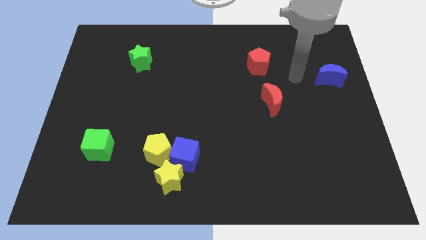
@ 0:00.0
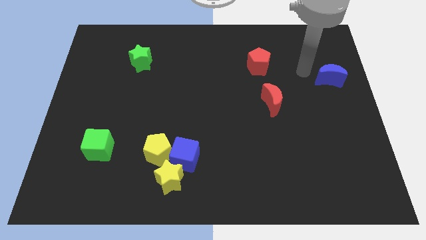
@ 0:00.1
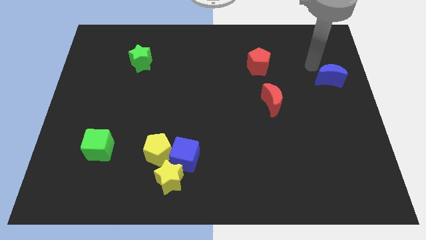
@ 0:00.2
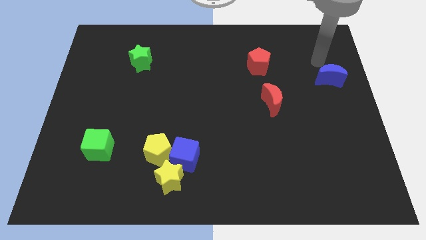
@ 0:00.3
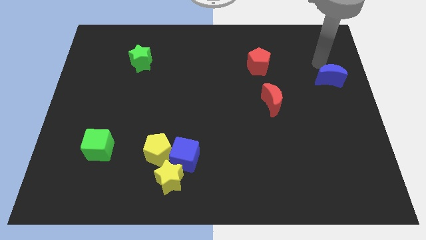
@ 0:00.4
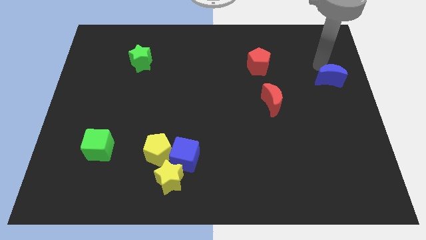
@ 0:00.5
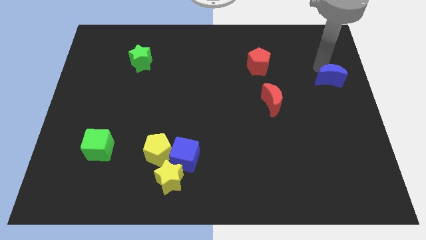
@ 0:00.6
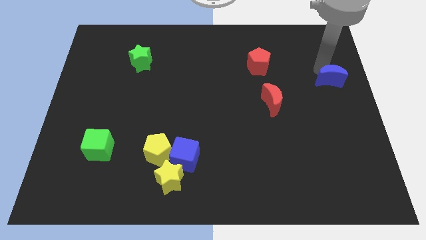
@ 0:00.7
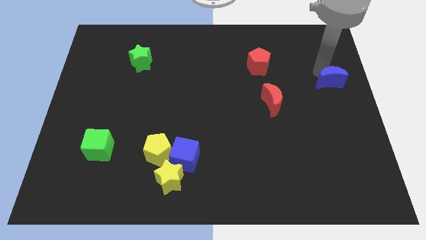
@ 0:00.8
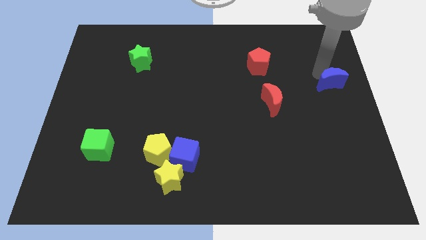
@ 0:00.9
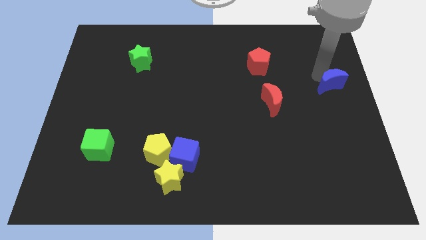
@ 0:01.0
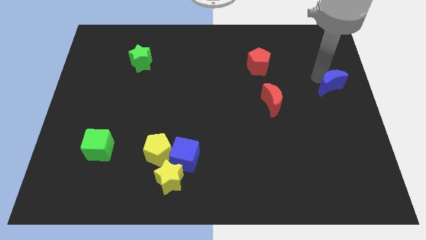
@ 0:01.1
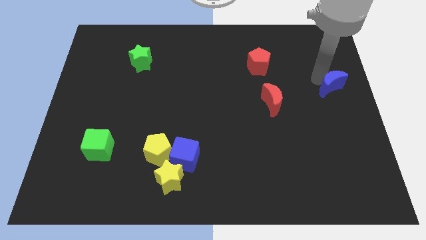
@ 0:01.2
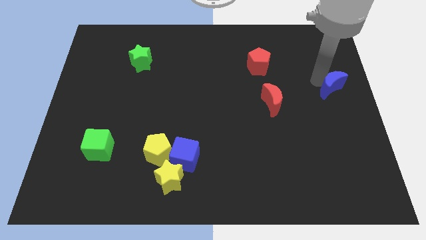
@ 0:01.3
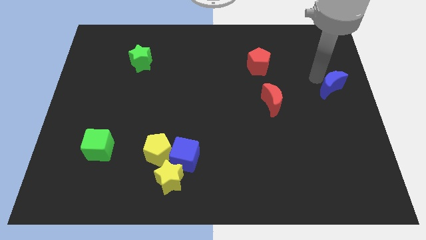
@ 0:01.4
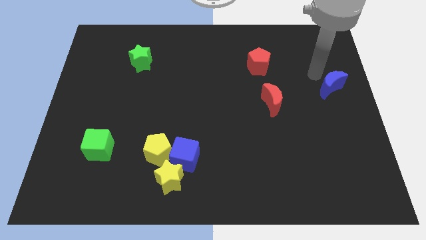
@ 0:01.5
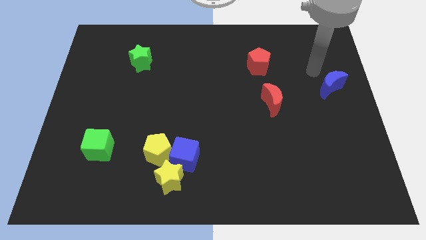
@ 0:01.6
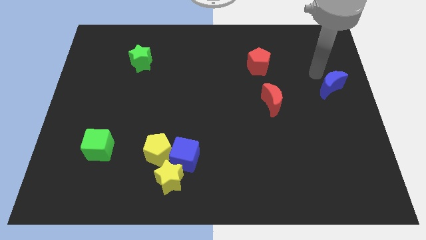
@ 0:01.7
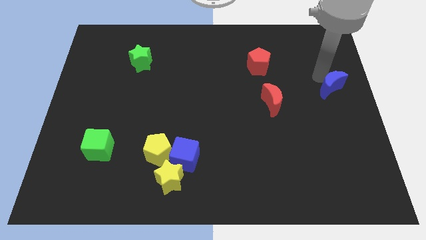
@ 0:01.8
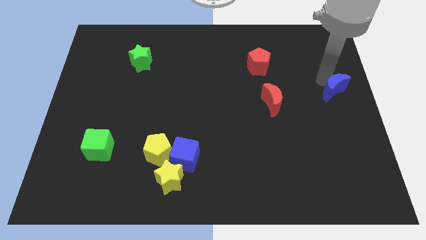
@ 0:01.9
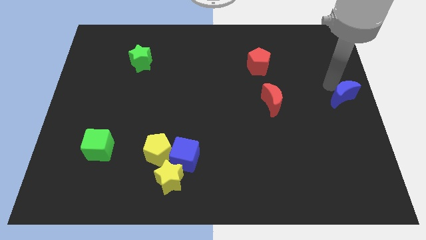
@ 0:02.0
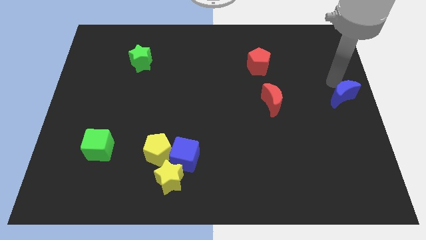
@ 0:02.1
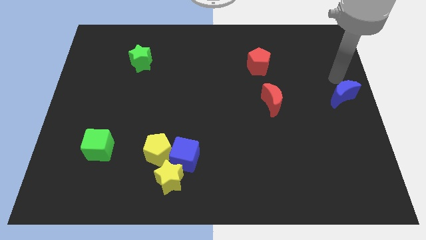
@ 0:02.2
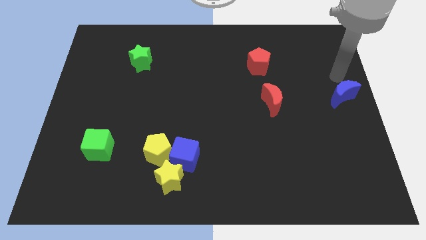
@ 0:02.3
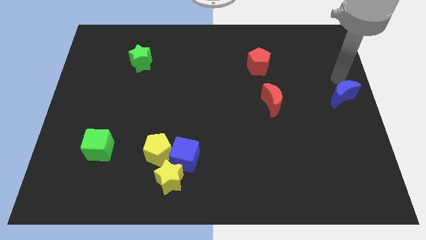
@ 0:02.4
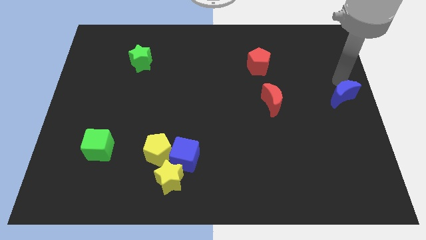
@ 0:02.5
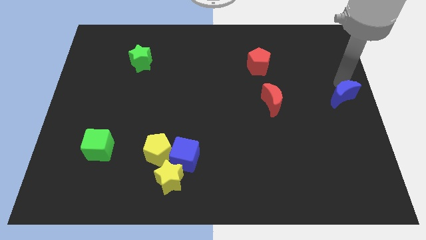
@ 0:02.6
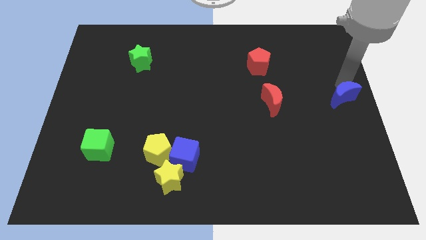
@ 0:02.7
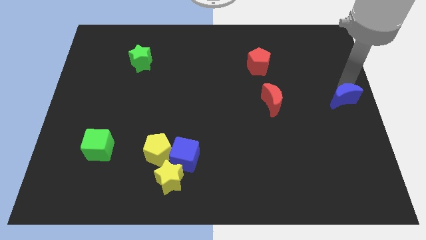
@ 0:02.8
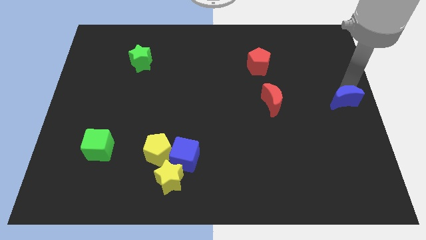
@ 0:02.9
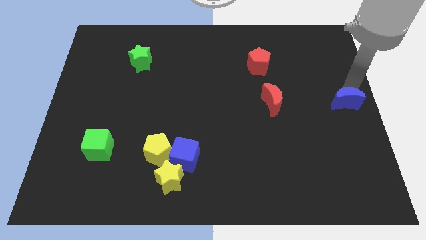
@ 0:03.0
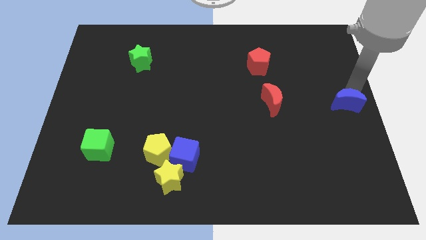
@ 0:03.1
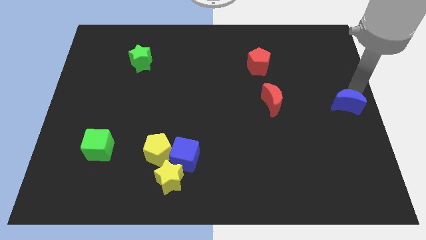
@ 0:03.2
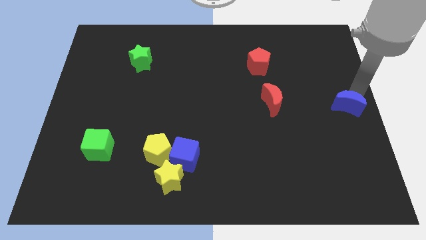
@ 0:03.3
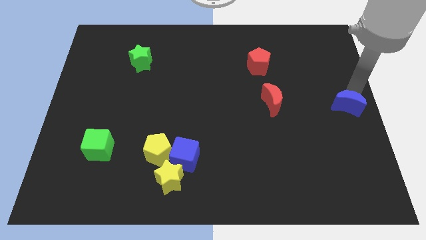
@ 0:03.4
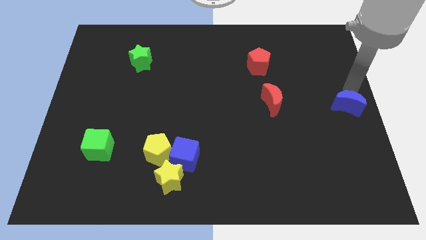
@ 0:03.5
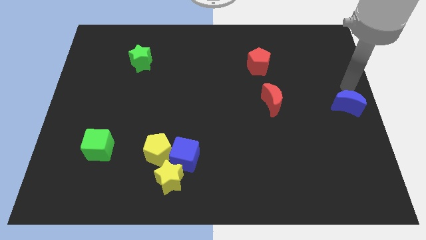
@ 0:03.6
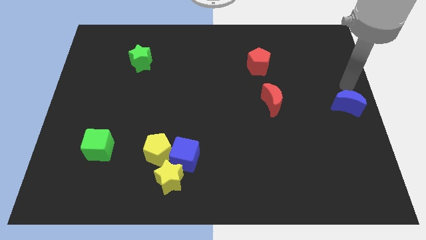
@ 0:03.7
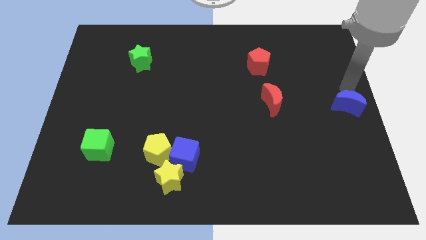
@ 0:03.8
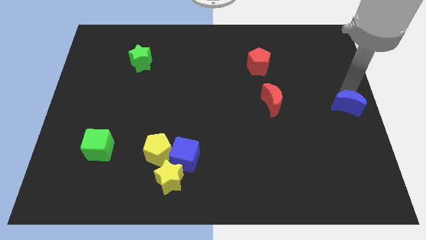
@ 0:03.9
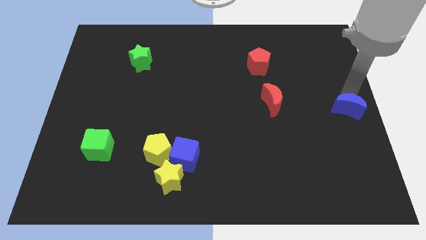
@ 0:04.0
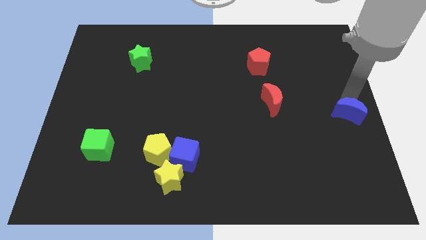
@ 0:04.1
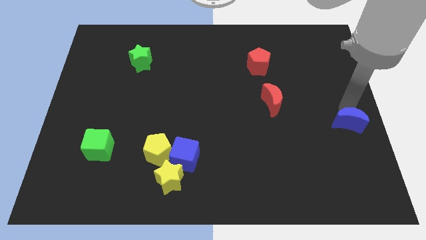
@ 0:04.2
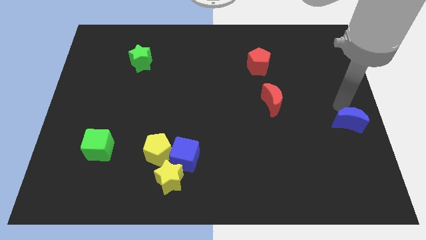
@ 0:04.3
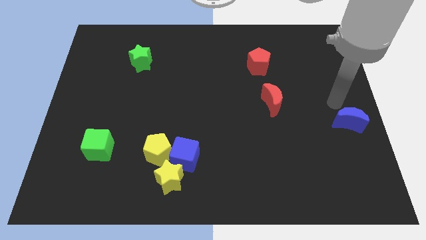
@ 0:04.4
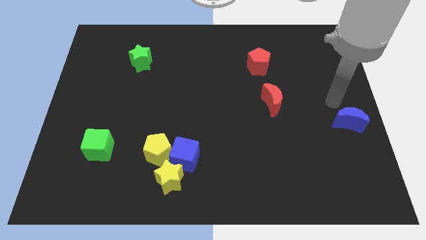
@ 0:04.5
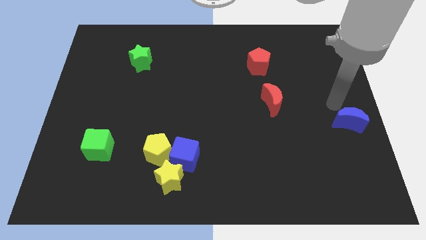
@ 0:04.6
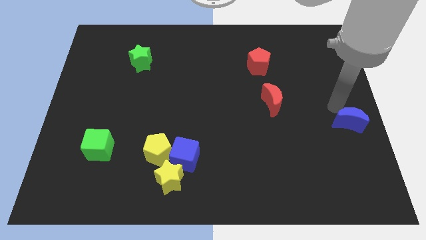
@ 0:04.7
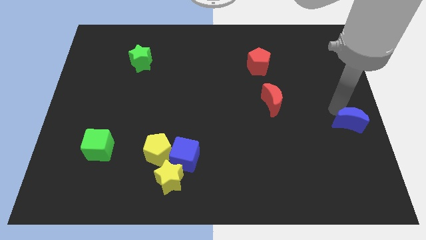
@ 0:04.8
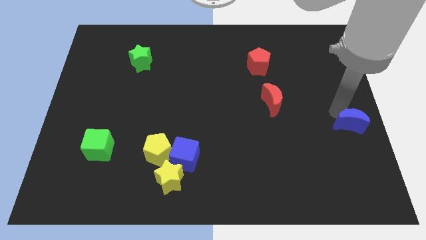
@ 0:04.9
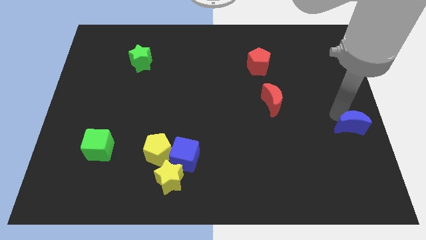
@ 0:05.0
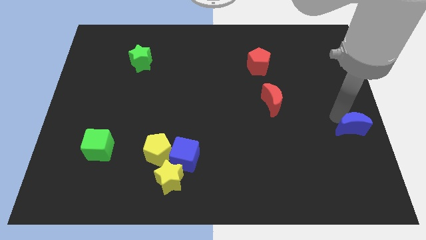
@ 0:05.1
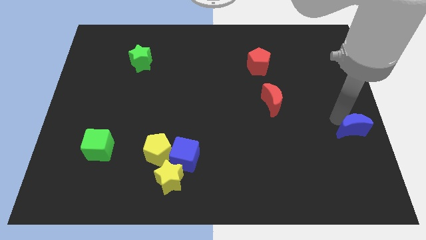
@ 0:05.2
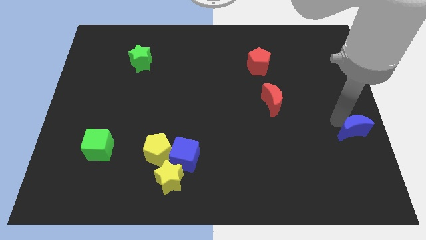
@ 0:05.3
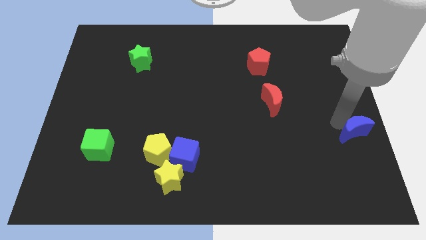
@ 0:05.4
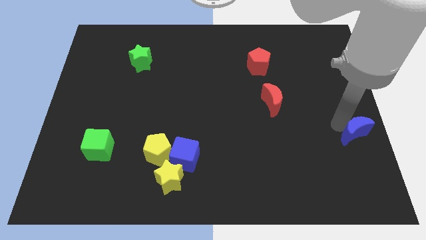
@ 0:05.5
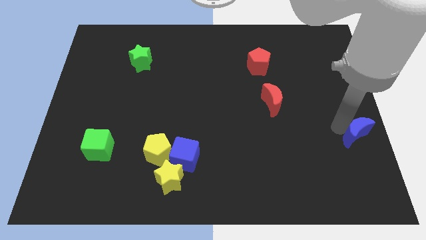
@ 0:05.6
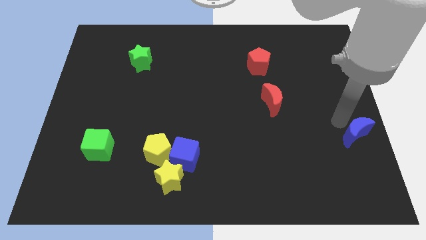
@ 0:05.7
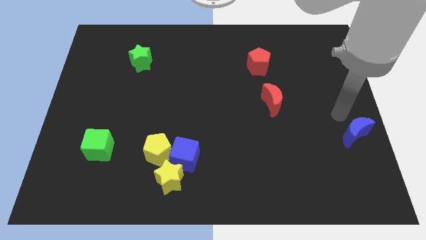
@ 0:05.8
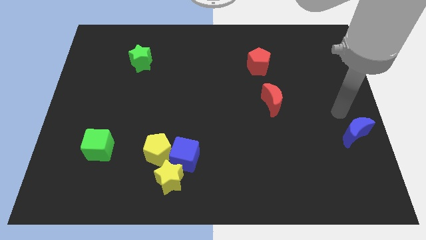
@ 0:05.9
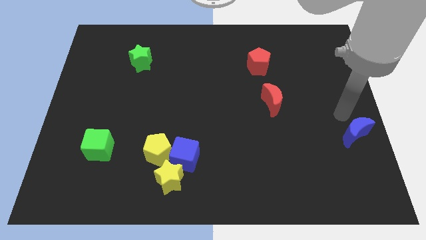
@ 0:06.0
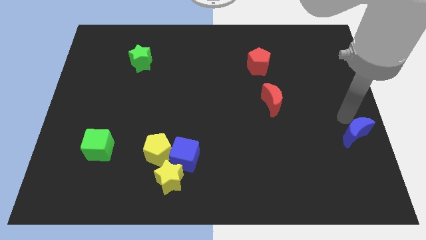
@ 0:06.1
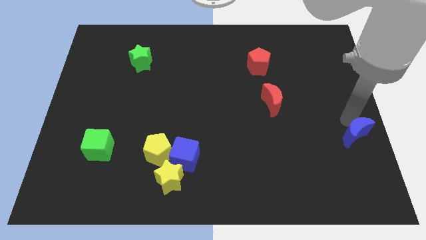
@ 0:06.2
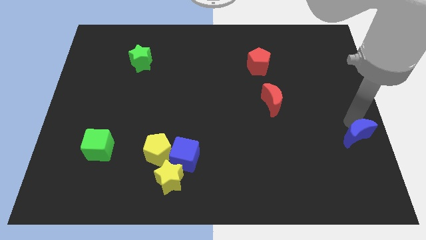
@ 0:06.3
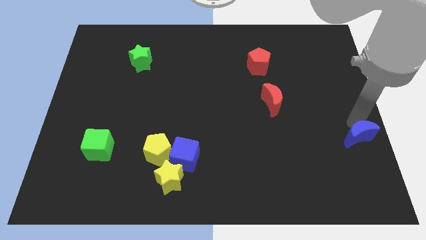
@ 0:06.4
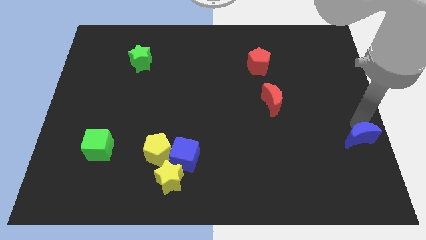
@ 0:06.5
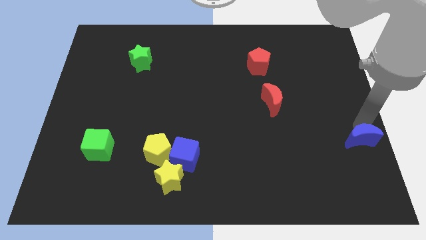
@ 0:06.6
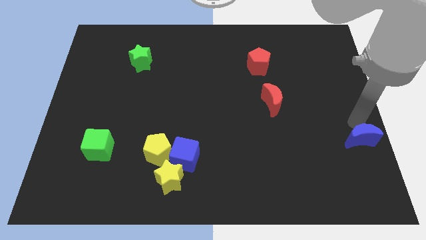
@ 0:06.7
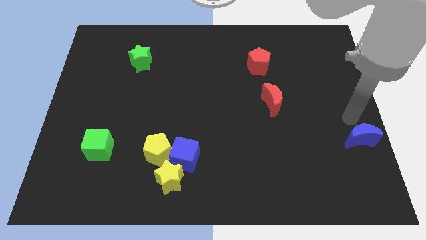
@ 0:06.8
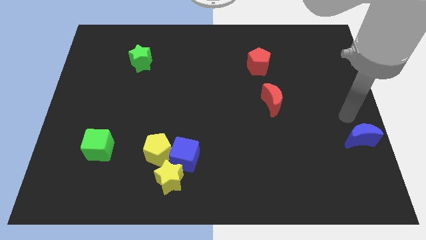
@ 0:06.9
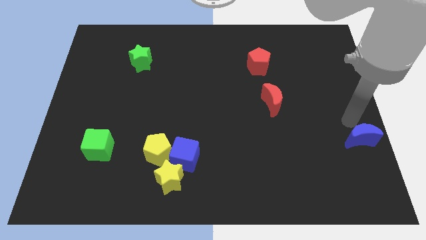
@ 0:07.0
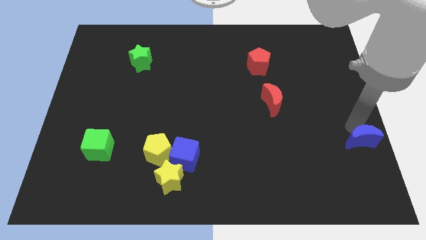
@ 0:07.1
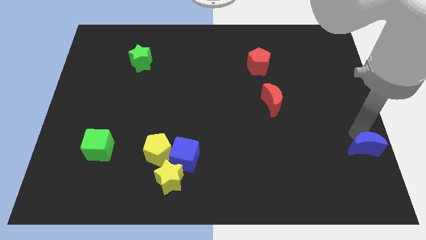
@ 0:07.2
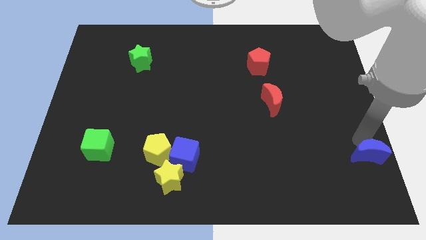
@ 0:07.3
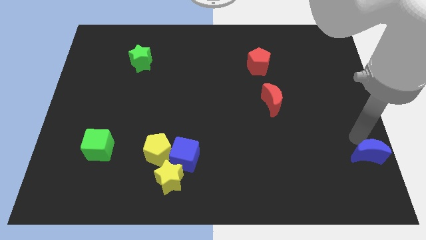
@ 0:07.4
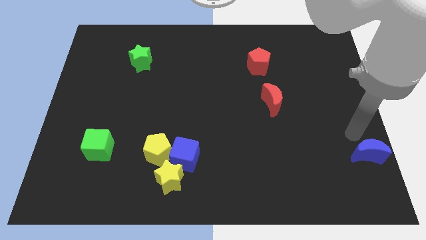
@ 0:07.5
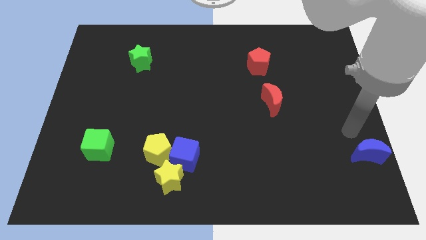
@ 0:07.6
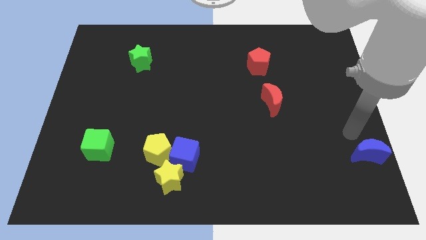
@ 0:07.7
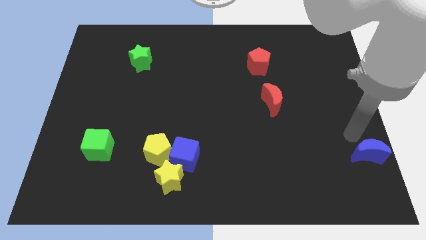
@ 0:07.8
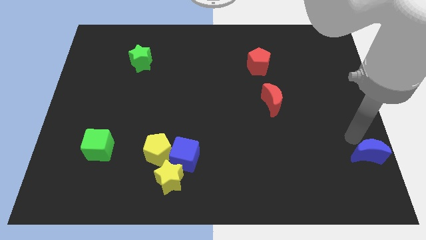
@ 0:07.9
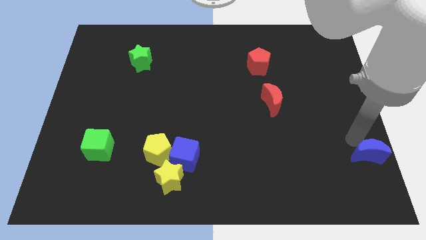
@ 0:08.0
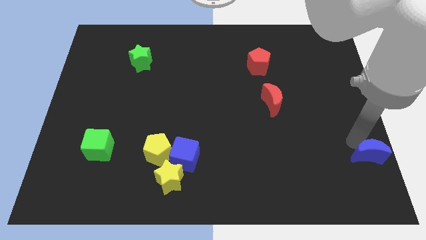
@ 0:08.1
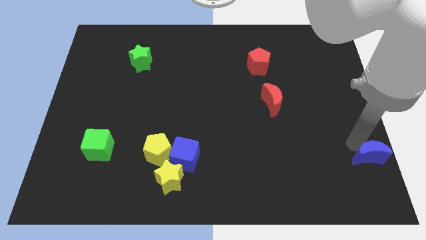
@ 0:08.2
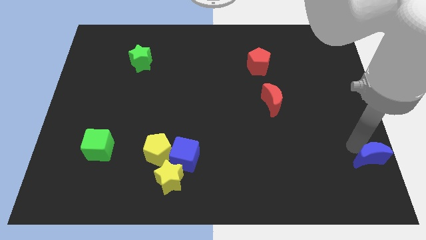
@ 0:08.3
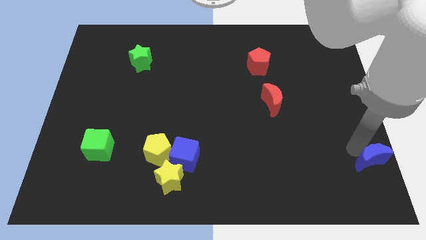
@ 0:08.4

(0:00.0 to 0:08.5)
push the blue moon to the bottom right corner
